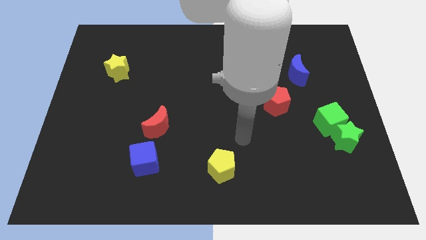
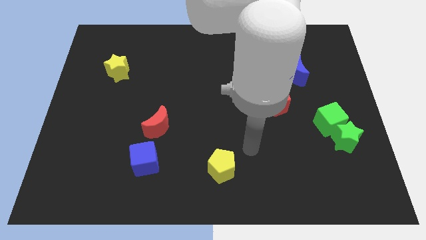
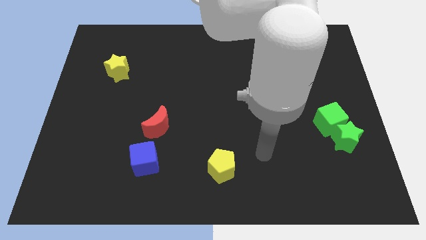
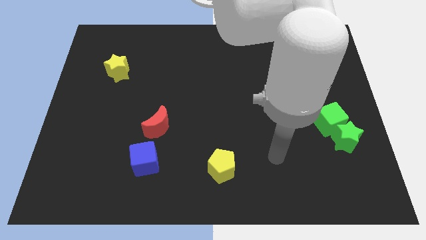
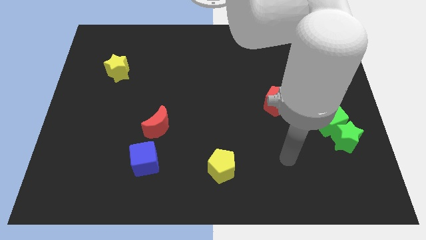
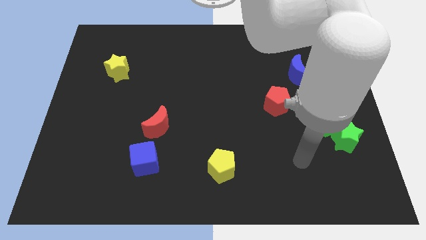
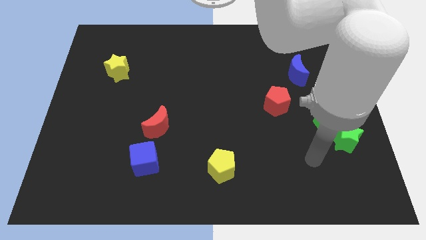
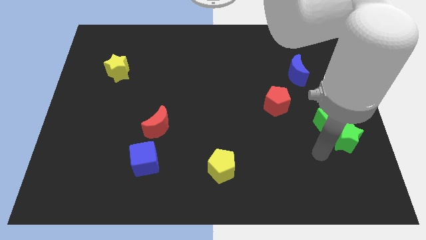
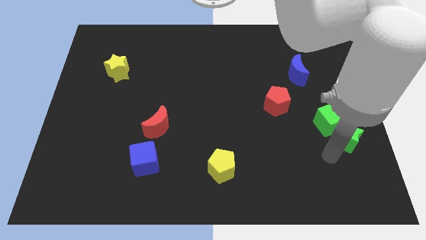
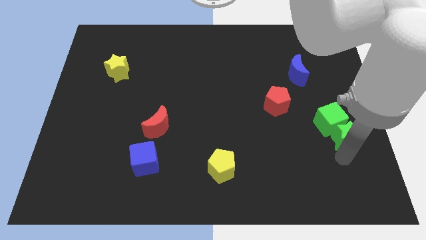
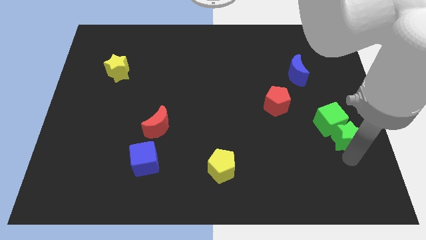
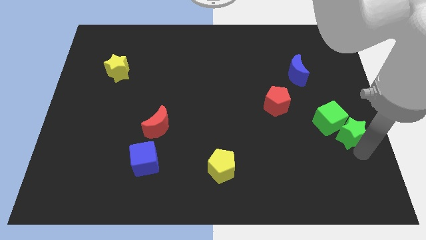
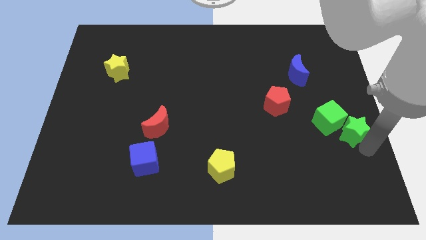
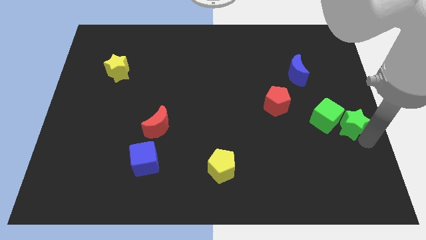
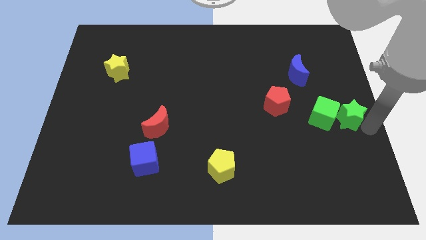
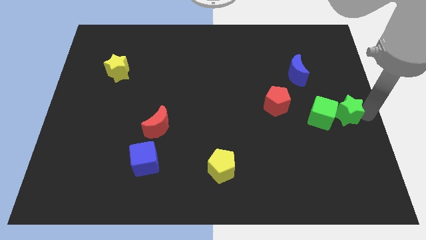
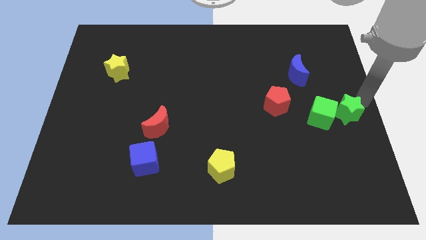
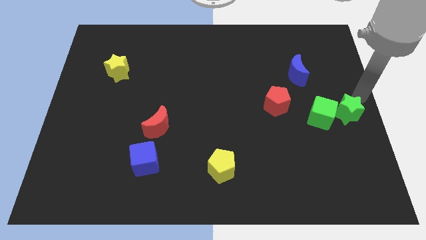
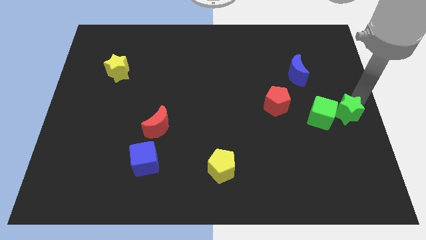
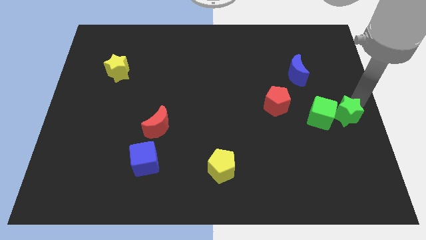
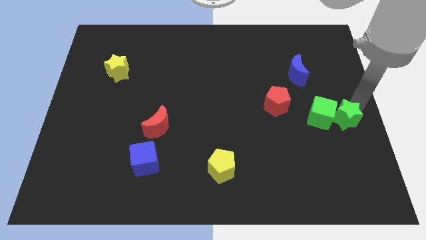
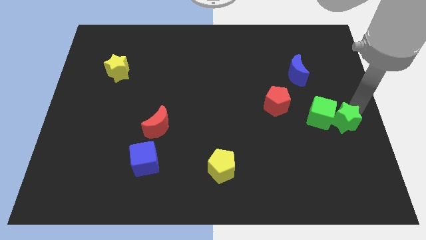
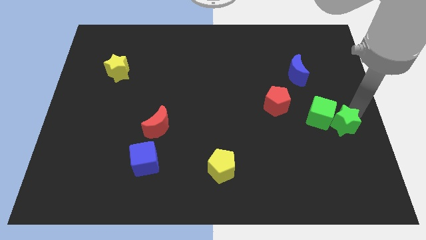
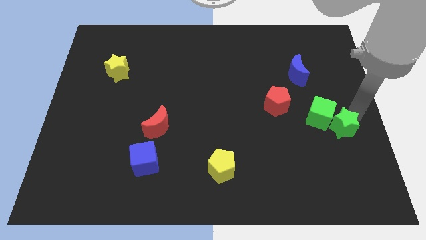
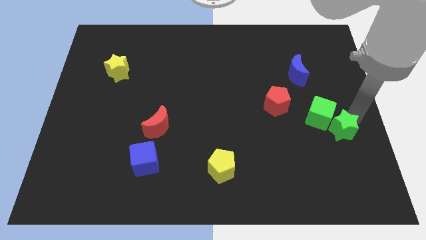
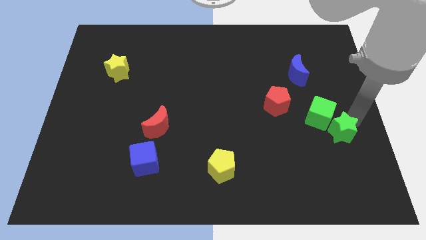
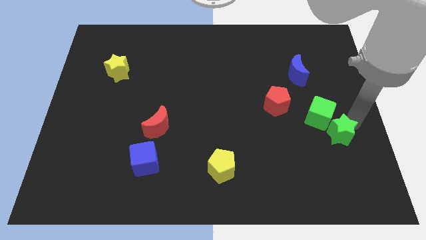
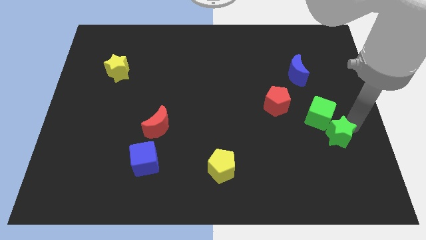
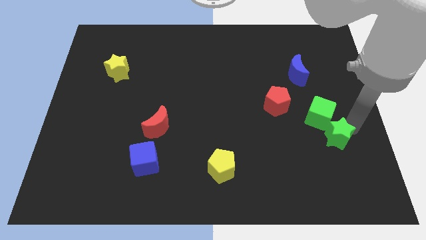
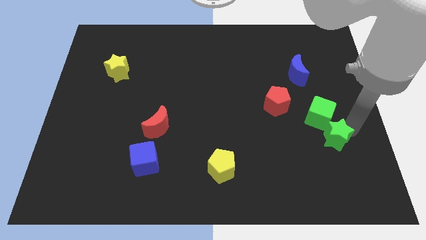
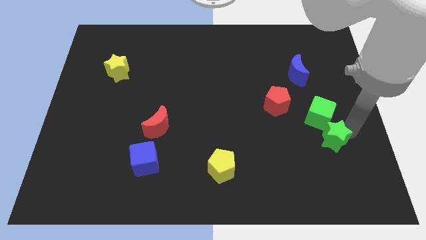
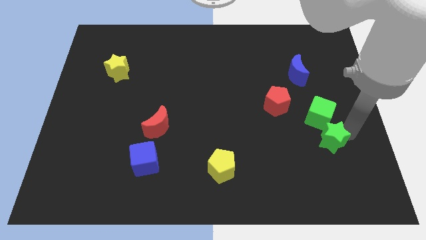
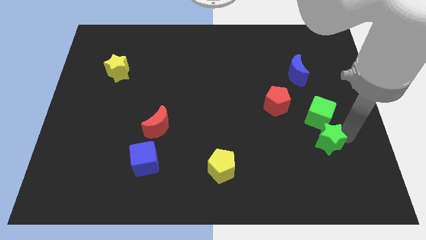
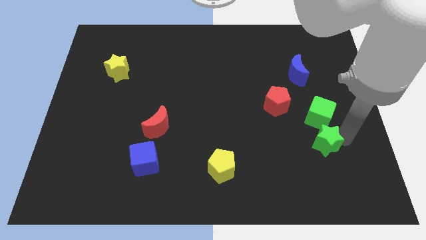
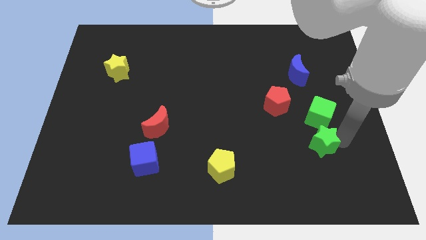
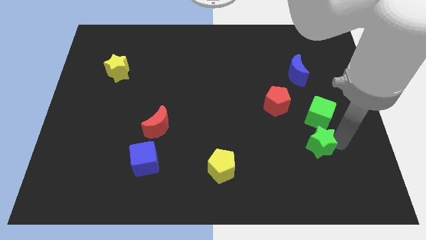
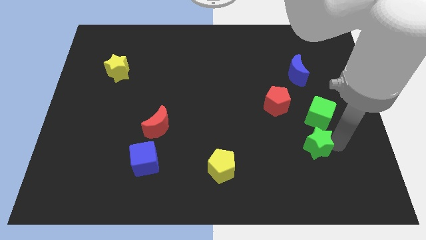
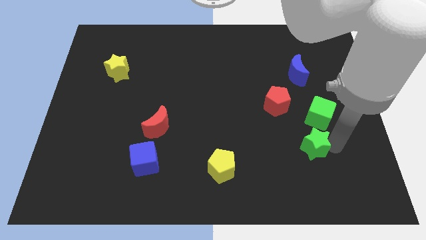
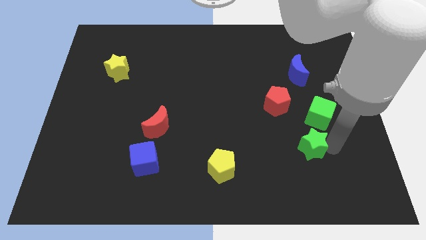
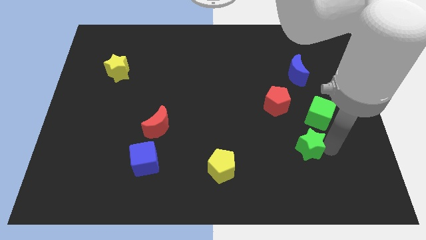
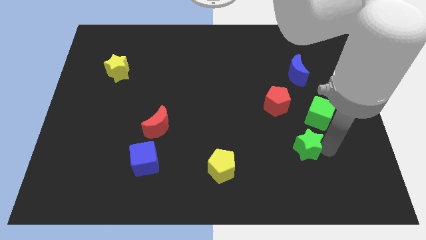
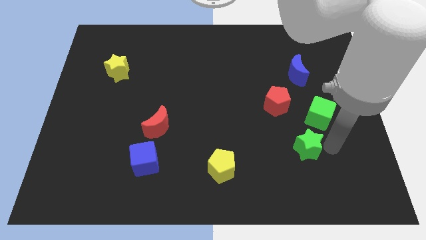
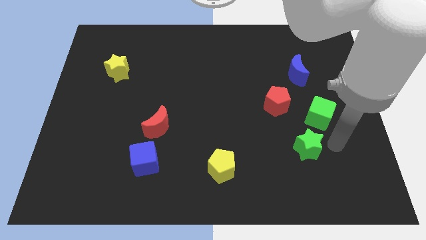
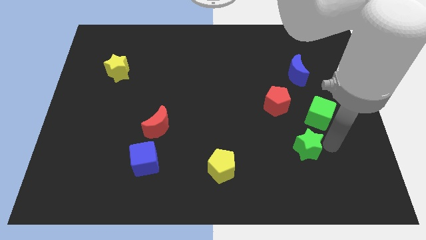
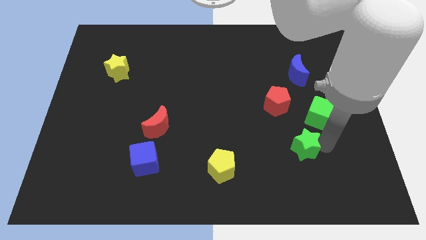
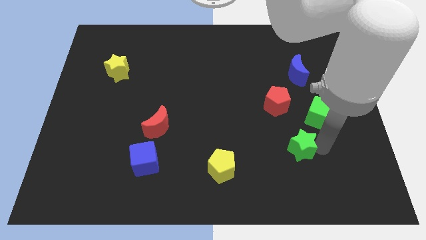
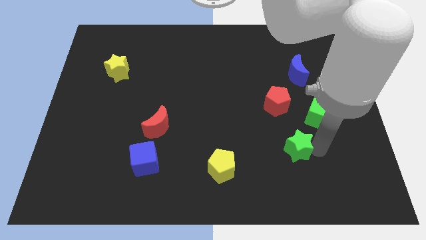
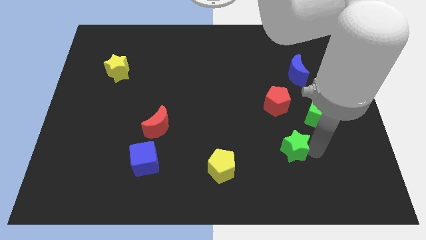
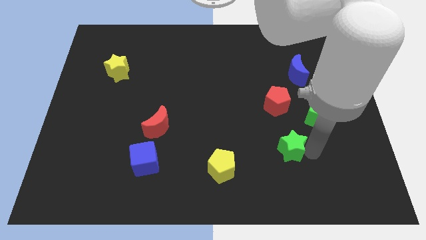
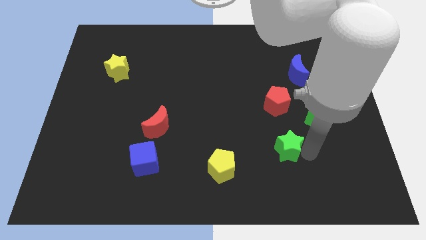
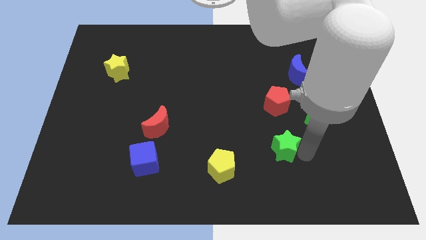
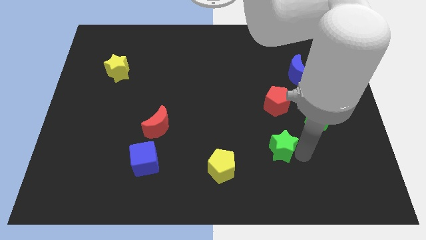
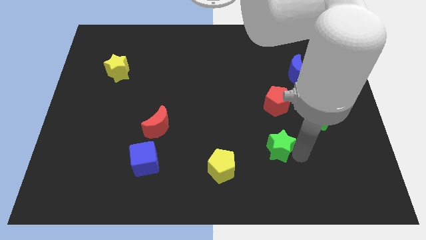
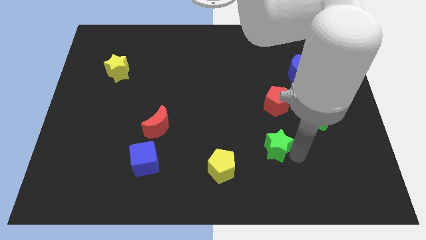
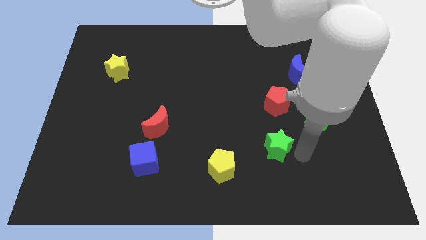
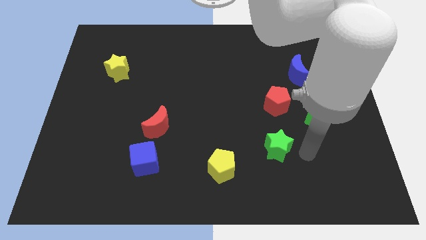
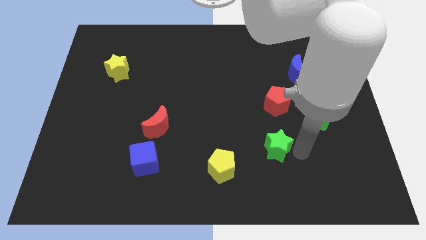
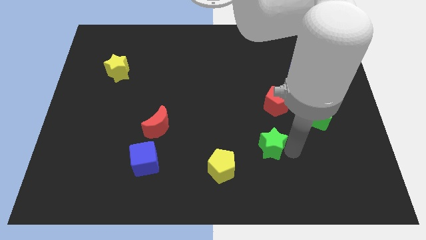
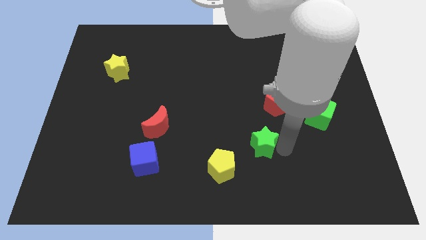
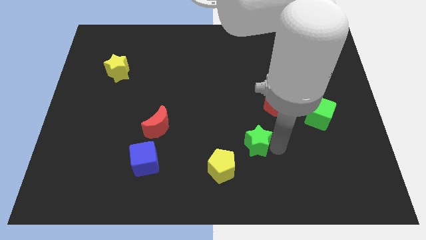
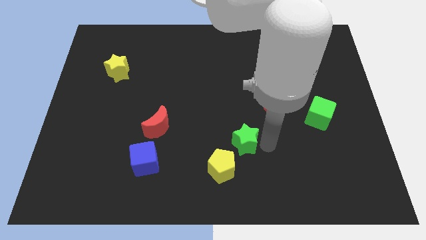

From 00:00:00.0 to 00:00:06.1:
move the green star left

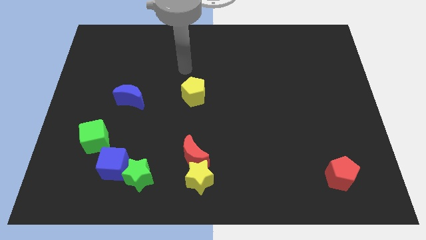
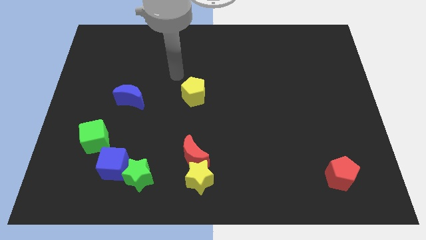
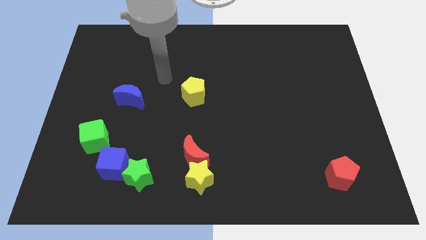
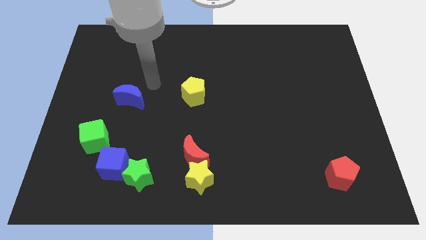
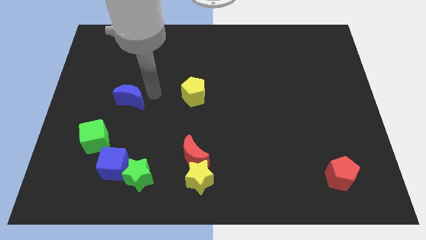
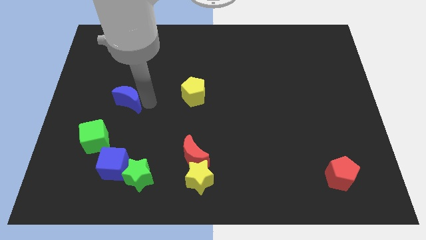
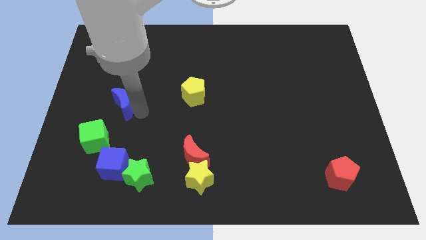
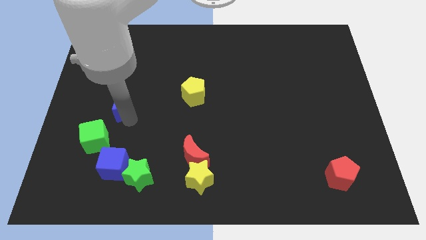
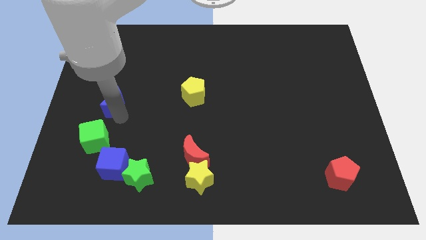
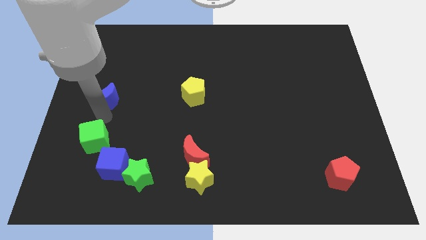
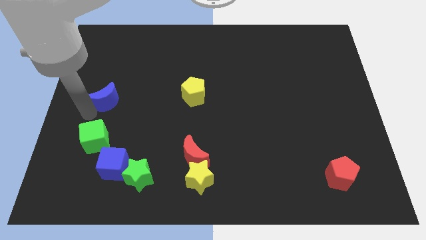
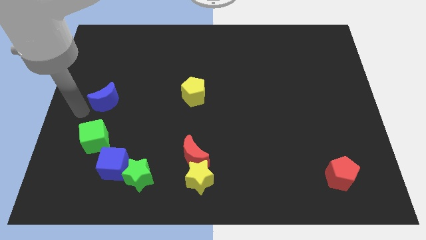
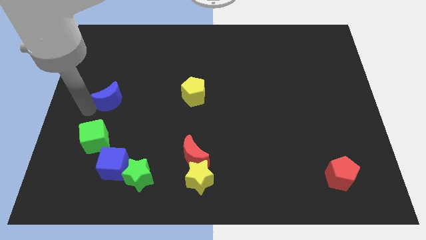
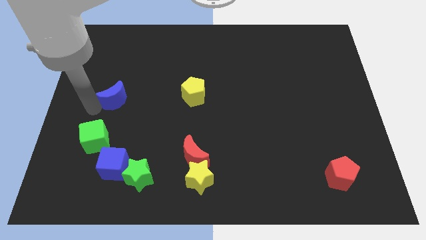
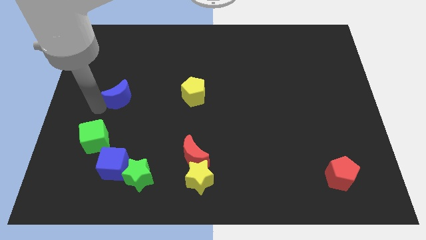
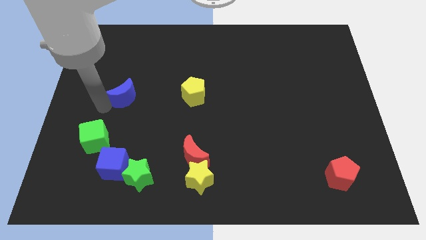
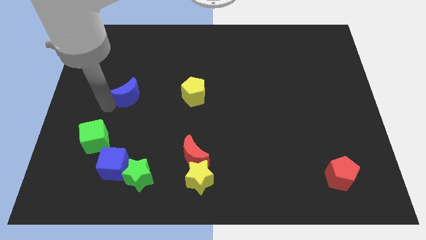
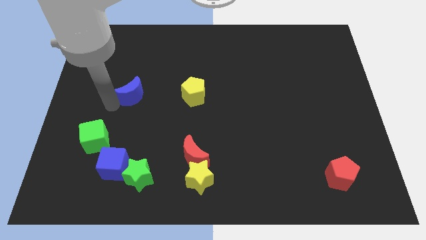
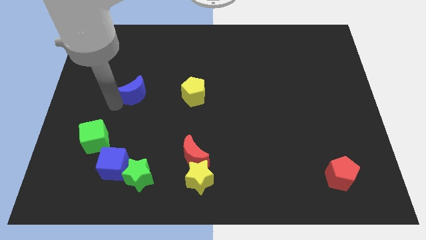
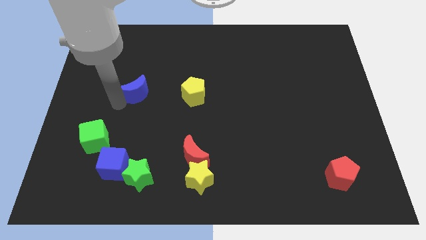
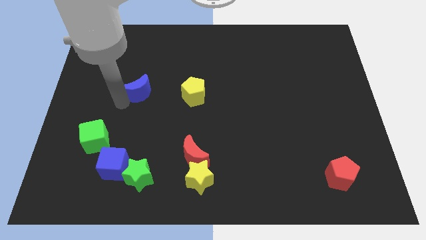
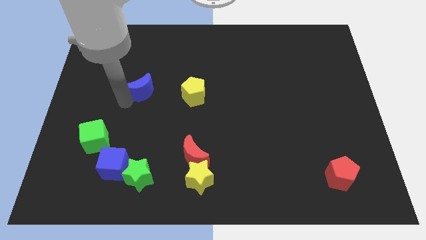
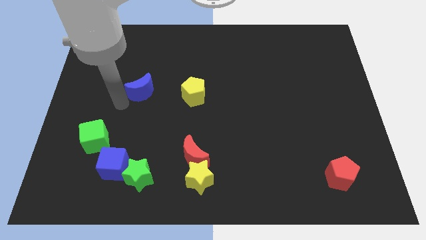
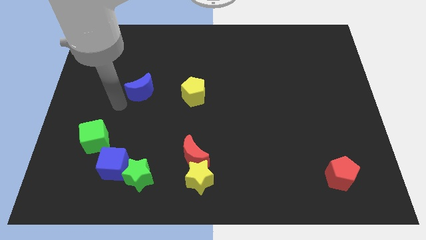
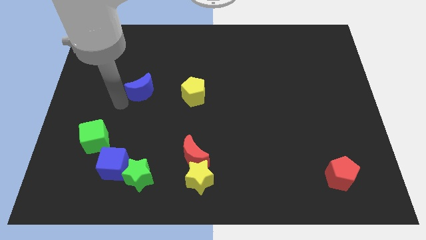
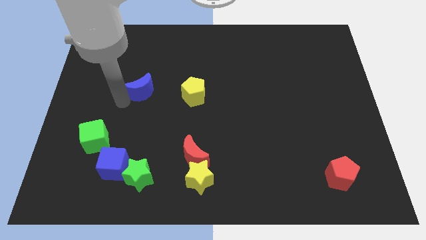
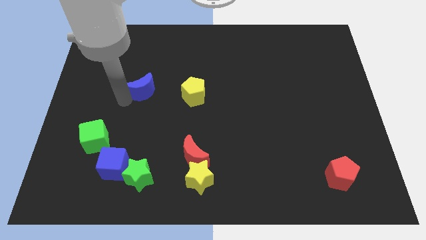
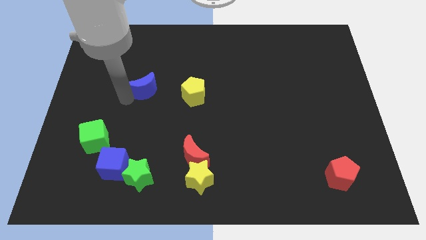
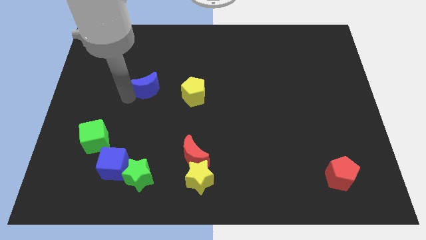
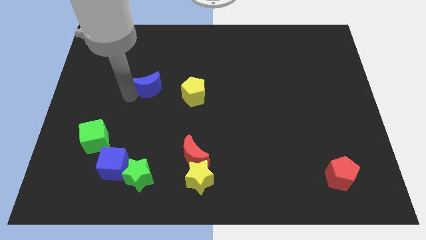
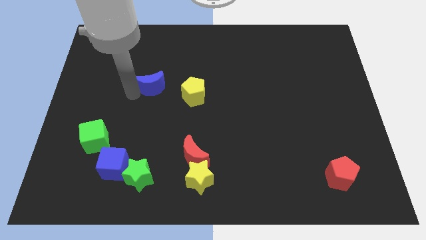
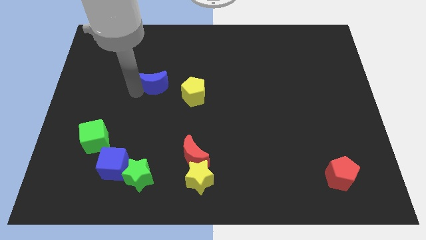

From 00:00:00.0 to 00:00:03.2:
push the blue moon diagonally up and right a little
